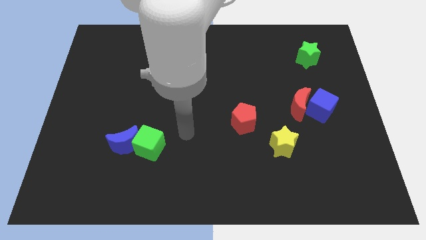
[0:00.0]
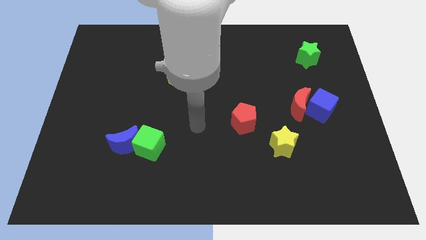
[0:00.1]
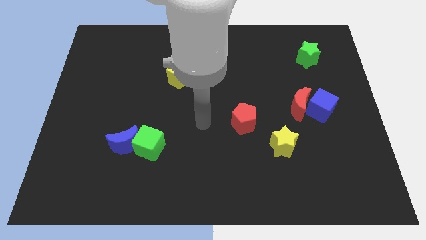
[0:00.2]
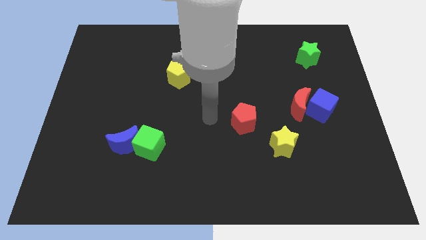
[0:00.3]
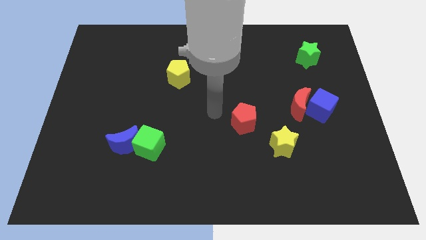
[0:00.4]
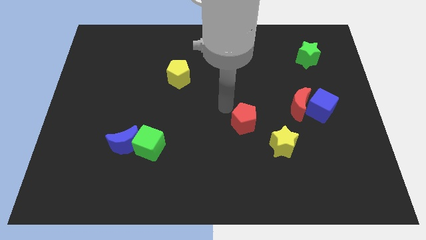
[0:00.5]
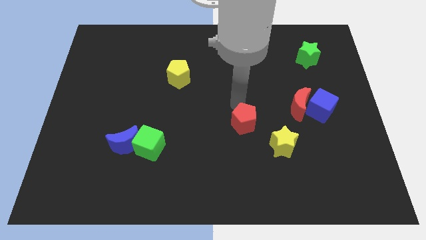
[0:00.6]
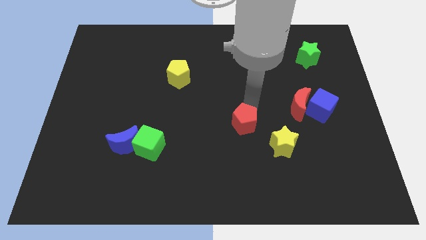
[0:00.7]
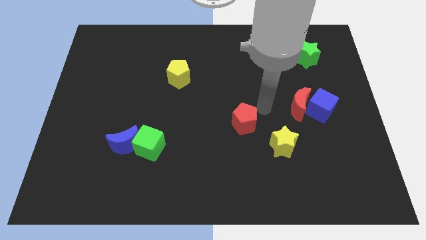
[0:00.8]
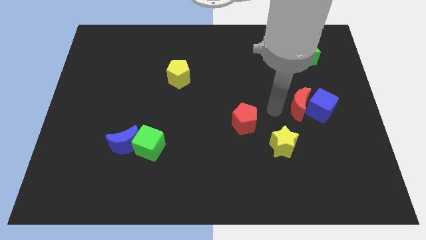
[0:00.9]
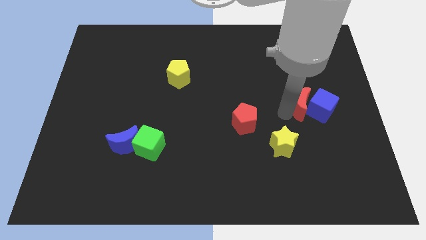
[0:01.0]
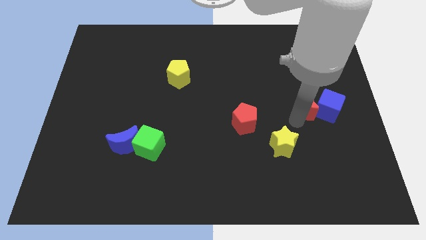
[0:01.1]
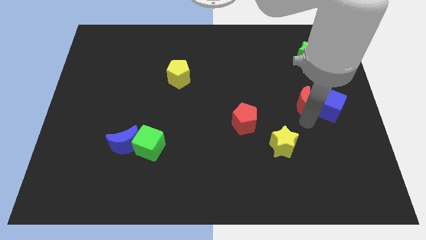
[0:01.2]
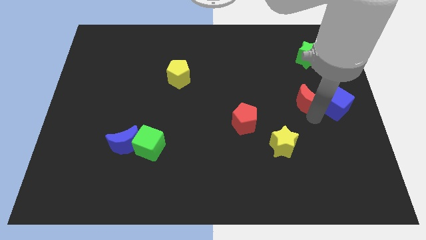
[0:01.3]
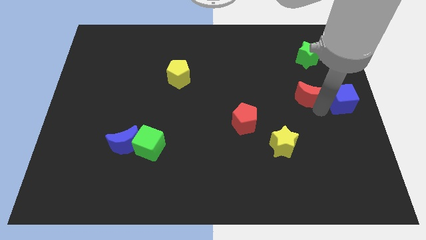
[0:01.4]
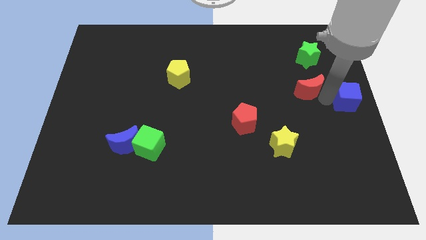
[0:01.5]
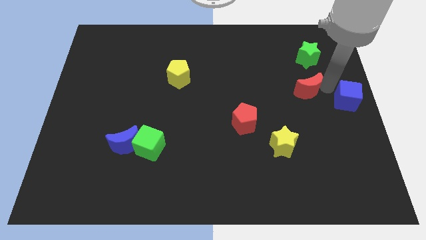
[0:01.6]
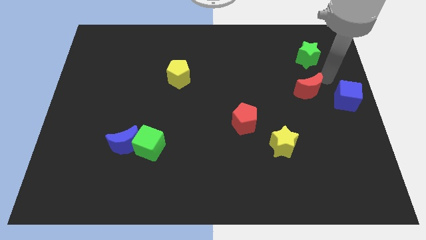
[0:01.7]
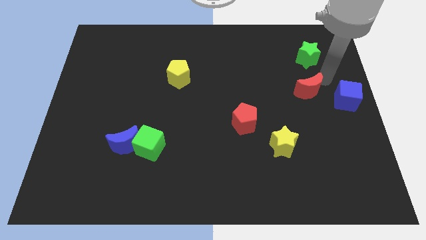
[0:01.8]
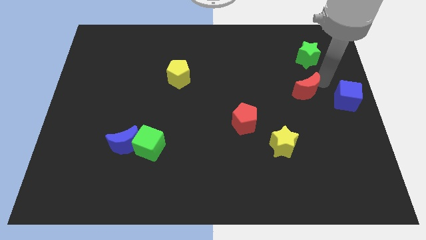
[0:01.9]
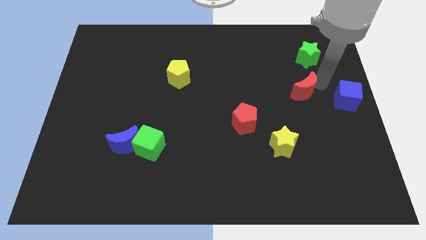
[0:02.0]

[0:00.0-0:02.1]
move the red moon away from the blue cube

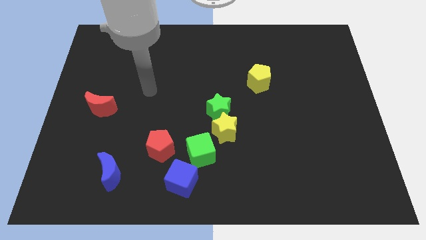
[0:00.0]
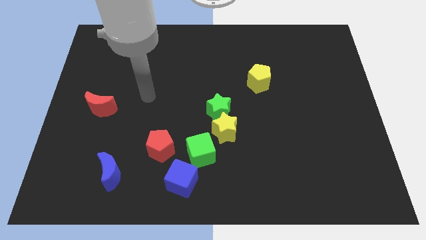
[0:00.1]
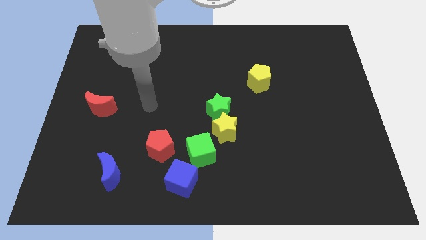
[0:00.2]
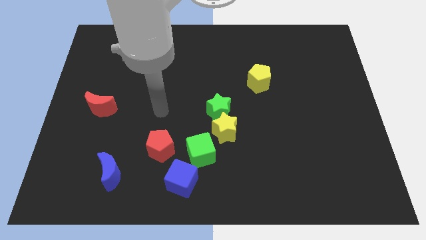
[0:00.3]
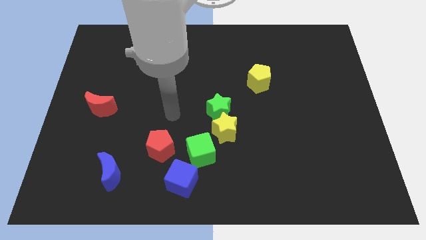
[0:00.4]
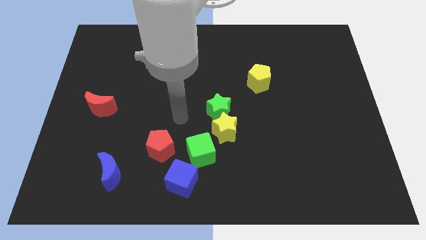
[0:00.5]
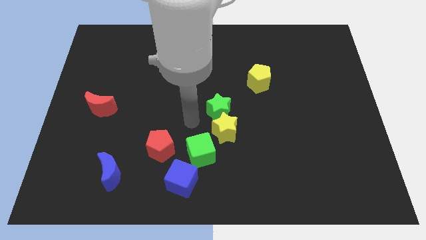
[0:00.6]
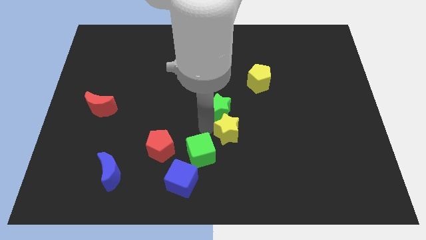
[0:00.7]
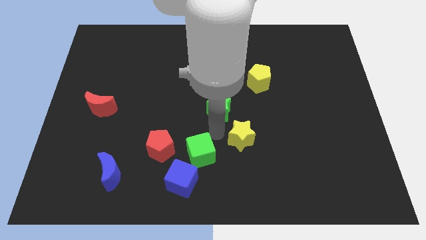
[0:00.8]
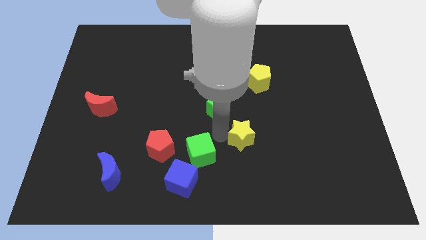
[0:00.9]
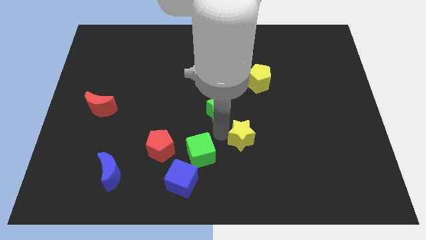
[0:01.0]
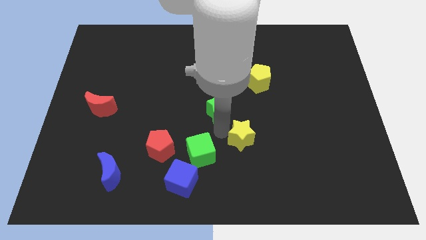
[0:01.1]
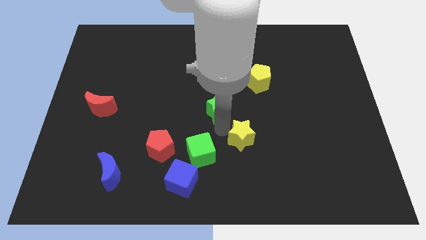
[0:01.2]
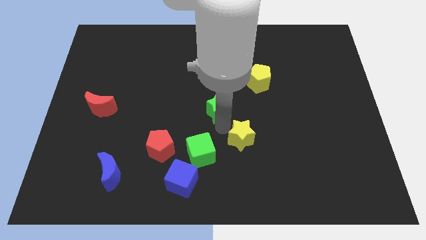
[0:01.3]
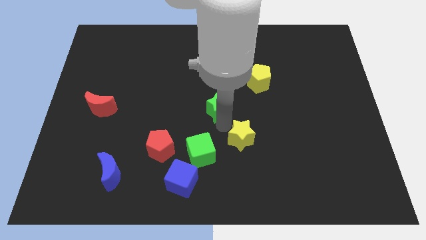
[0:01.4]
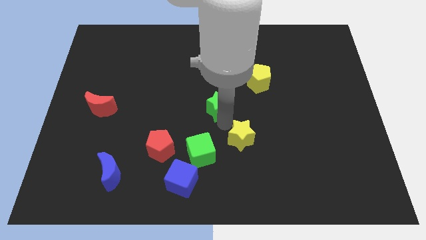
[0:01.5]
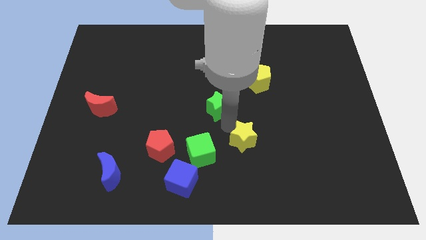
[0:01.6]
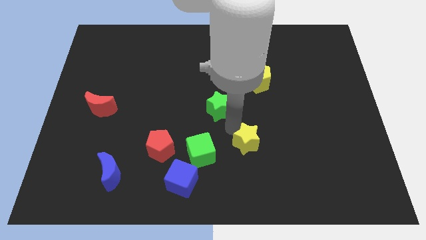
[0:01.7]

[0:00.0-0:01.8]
move the green star away from the yellow star

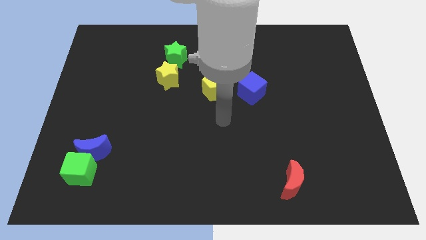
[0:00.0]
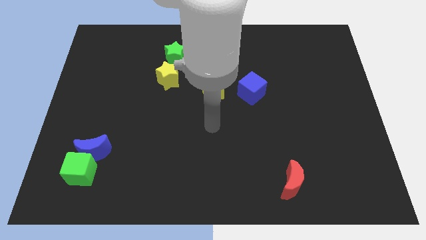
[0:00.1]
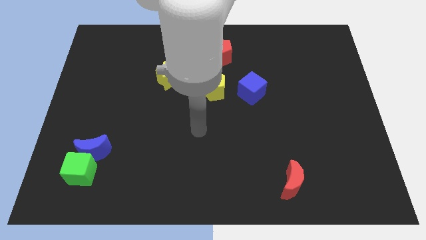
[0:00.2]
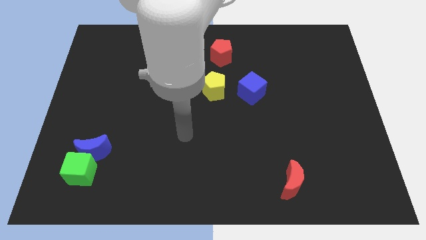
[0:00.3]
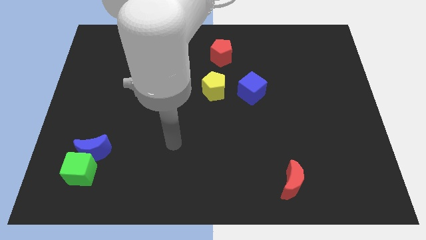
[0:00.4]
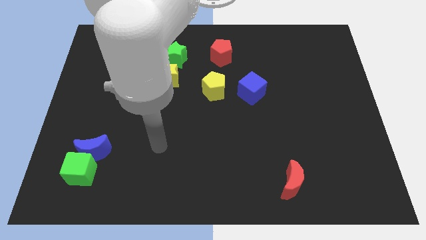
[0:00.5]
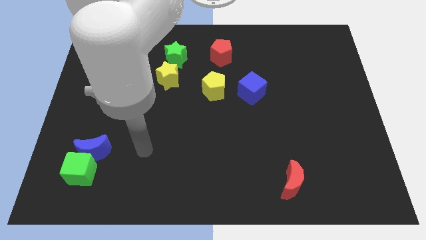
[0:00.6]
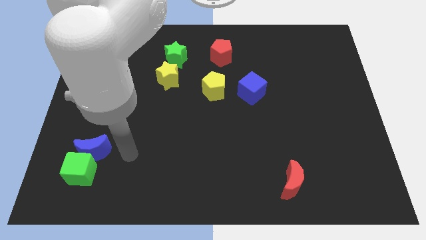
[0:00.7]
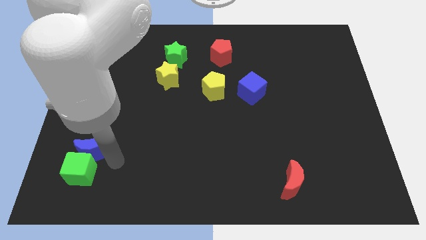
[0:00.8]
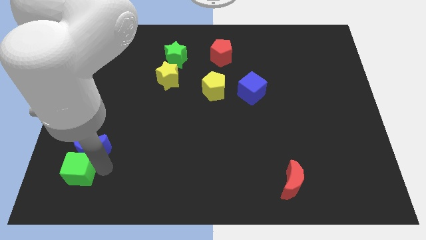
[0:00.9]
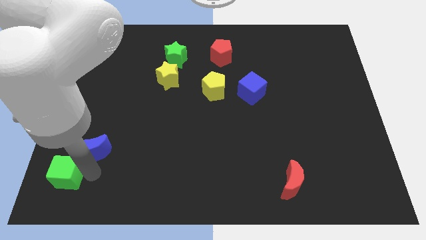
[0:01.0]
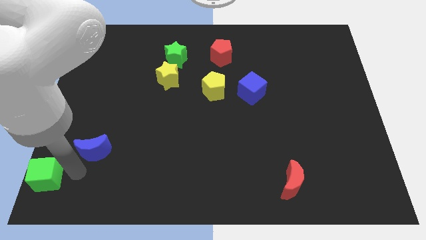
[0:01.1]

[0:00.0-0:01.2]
pull the blue moon apart from the green cube

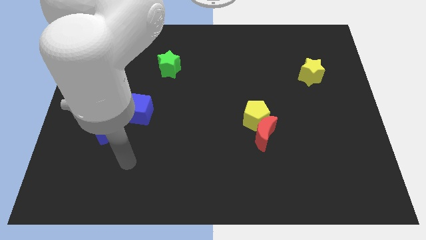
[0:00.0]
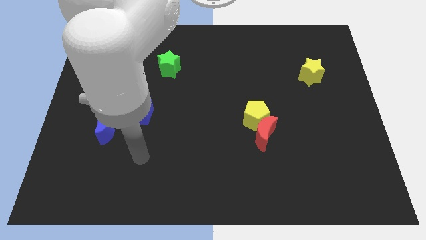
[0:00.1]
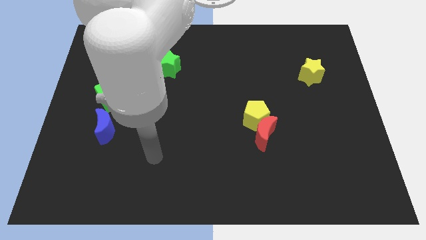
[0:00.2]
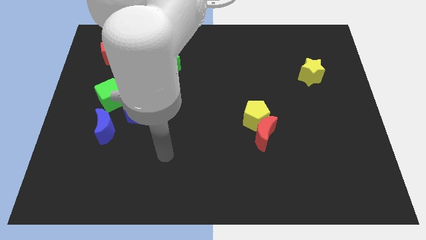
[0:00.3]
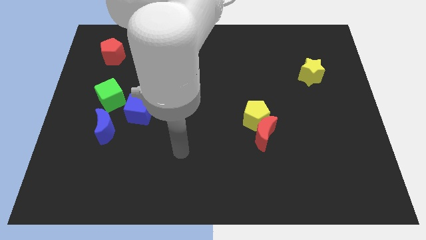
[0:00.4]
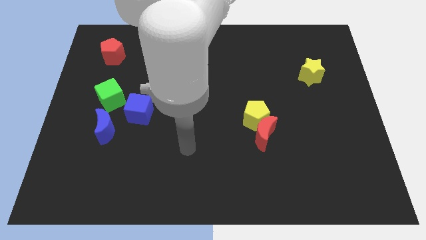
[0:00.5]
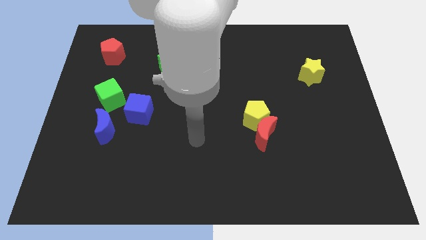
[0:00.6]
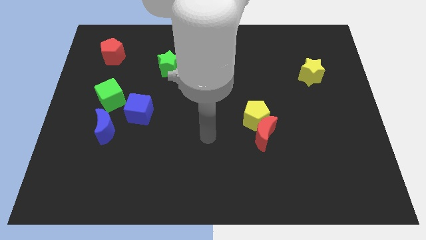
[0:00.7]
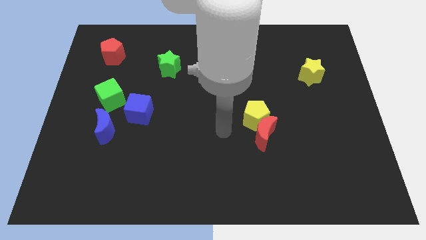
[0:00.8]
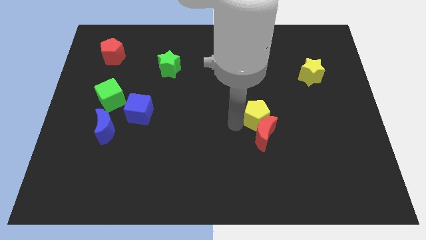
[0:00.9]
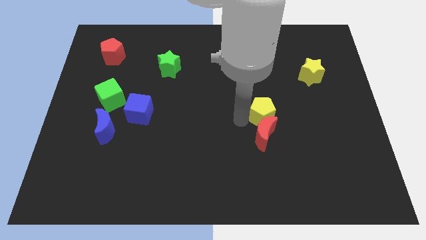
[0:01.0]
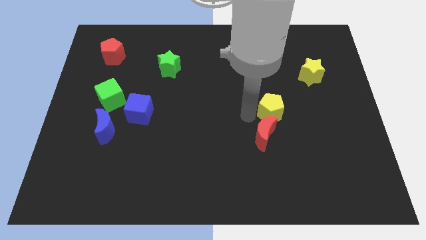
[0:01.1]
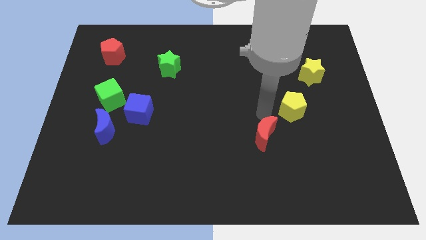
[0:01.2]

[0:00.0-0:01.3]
pull the red moon apart from the yellow pentagon

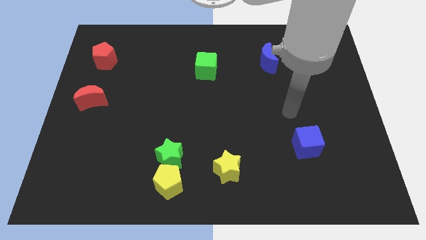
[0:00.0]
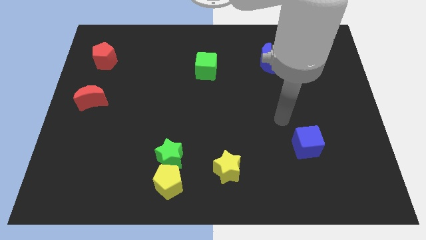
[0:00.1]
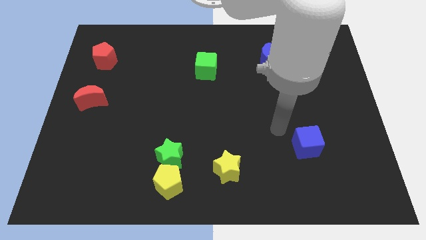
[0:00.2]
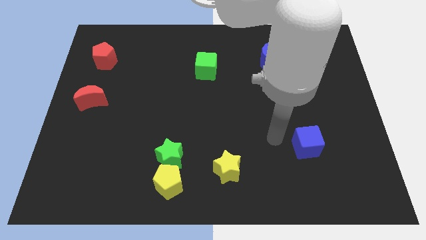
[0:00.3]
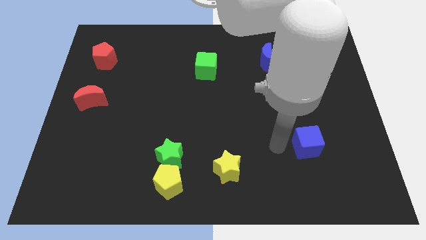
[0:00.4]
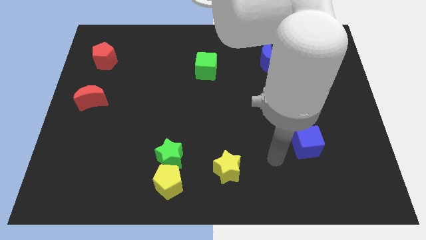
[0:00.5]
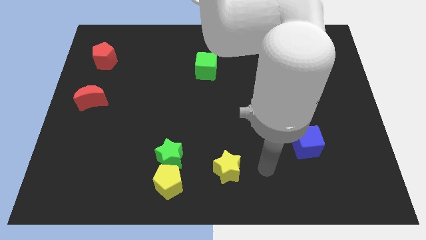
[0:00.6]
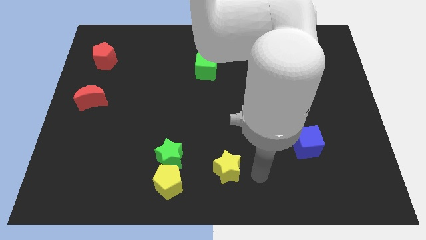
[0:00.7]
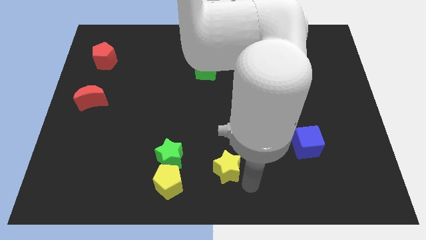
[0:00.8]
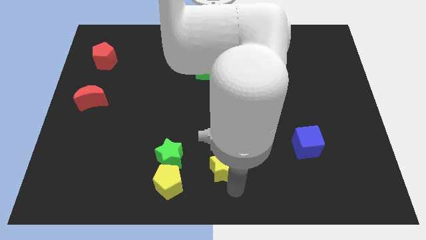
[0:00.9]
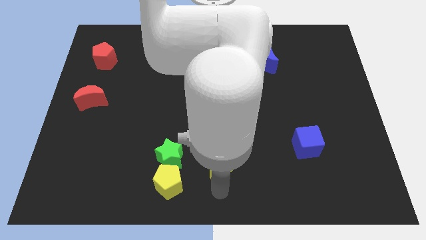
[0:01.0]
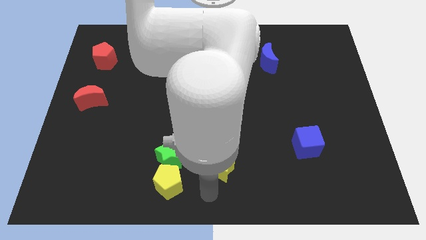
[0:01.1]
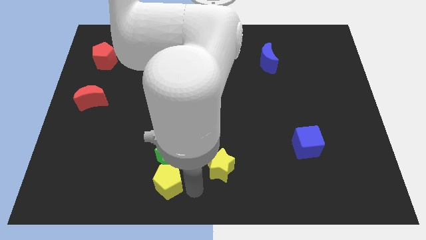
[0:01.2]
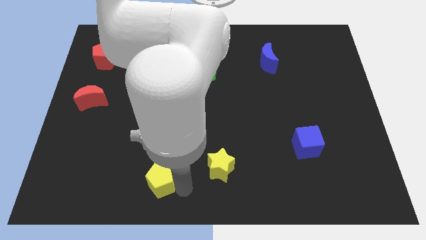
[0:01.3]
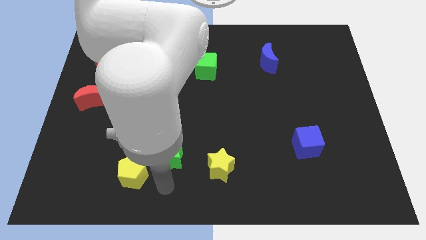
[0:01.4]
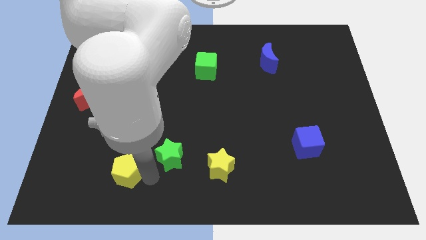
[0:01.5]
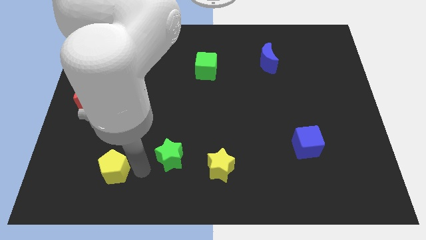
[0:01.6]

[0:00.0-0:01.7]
pull the green star apart from the yellow pentagon

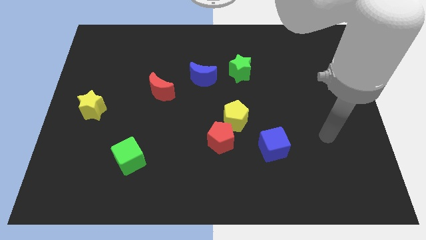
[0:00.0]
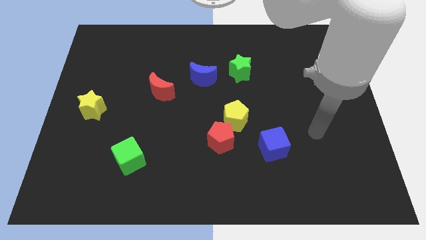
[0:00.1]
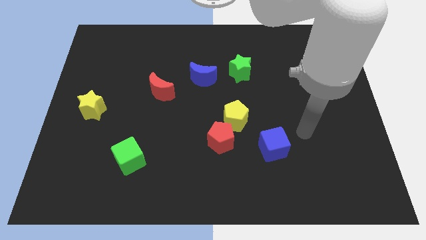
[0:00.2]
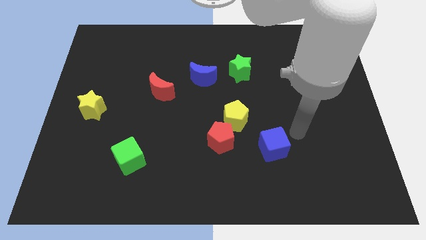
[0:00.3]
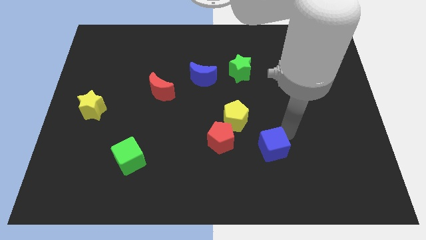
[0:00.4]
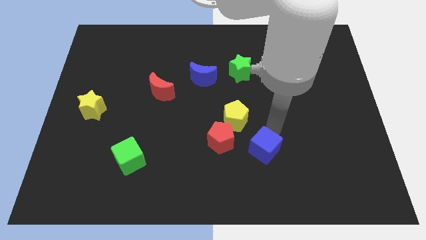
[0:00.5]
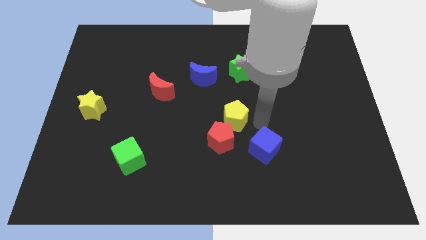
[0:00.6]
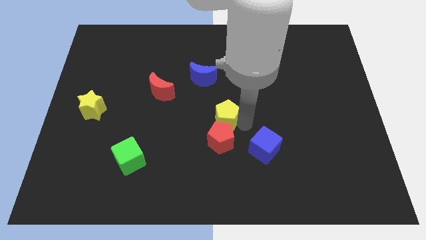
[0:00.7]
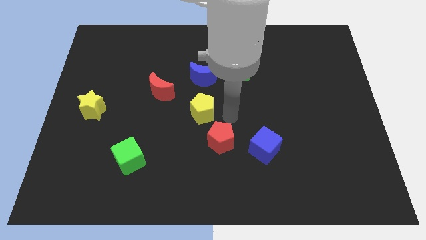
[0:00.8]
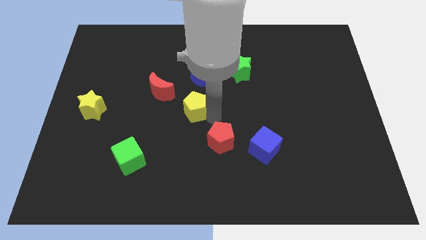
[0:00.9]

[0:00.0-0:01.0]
separate the red pentagon from the yellow pentagon

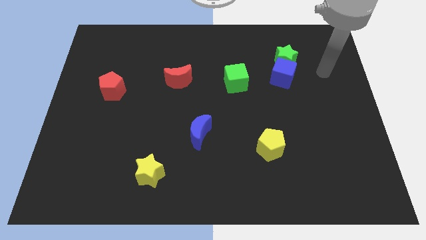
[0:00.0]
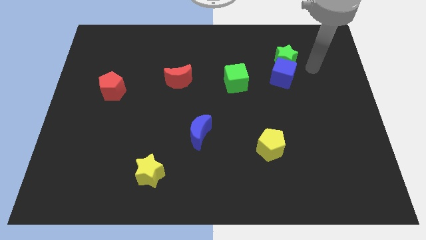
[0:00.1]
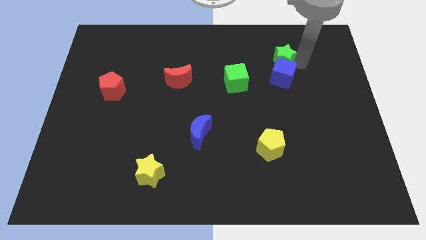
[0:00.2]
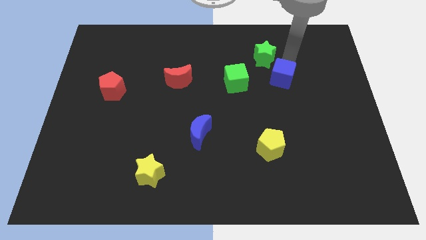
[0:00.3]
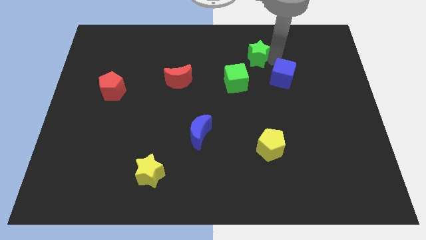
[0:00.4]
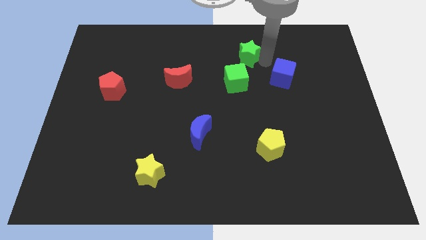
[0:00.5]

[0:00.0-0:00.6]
move the blue cube away from the green star
